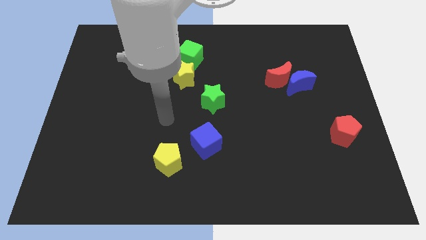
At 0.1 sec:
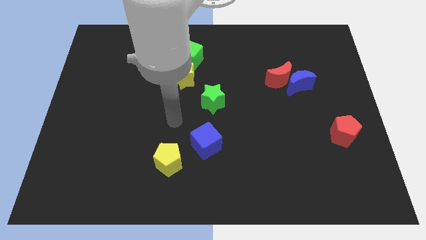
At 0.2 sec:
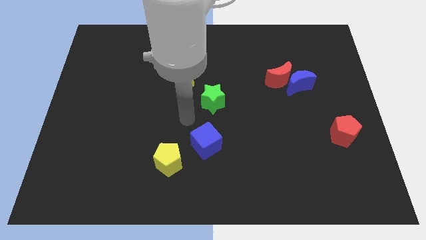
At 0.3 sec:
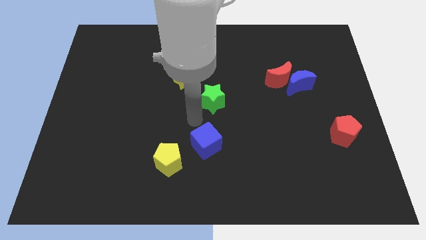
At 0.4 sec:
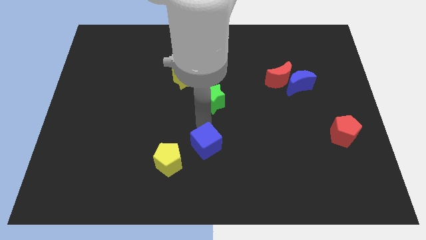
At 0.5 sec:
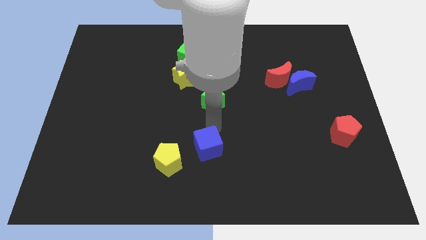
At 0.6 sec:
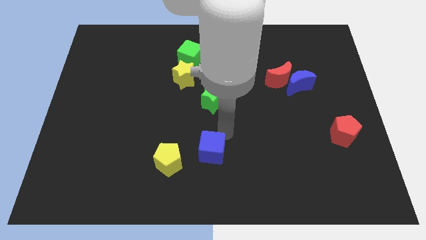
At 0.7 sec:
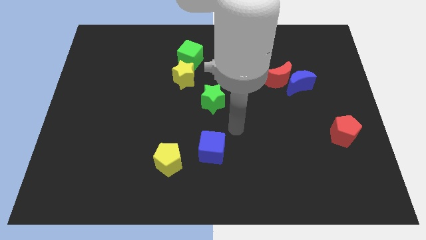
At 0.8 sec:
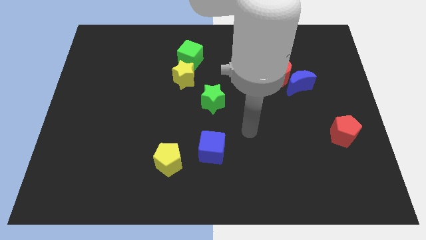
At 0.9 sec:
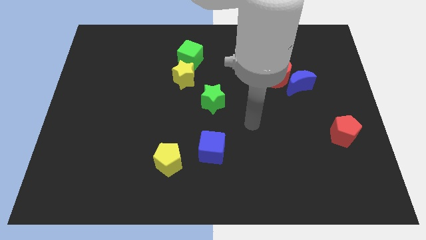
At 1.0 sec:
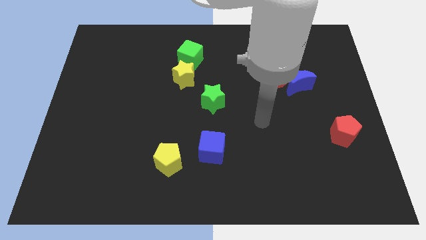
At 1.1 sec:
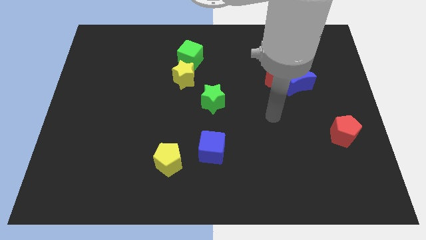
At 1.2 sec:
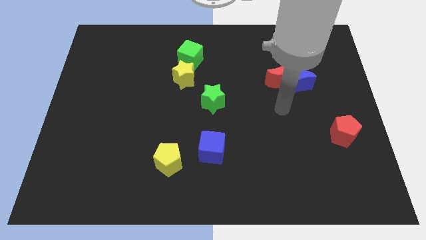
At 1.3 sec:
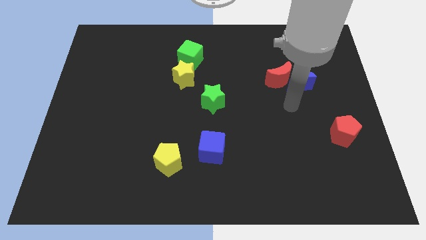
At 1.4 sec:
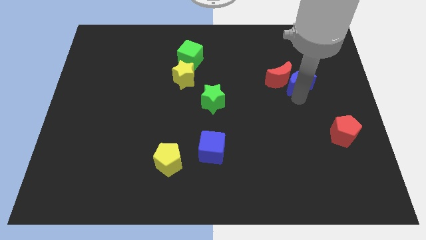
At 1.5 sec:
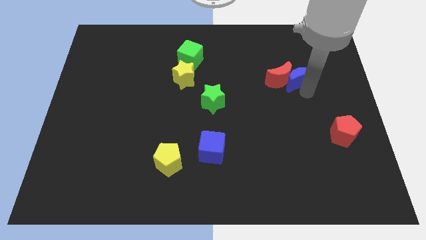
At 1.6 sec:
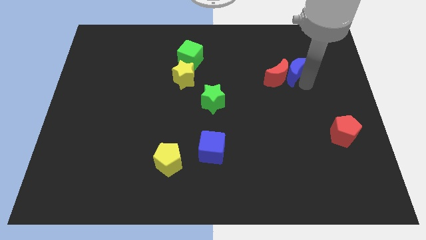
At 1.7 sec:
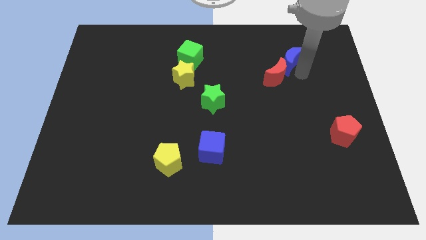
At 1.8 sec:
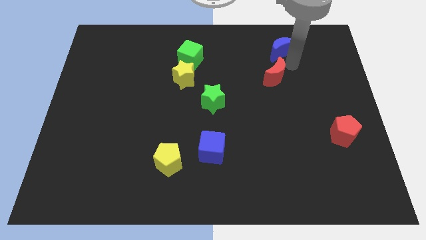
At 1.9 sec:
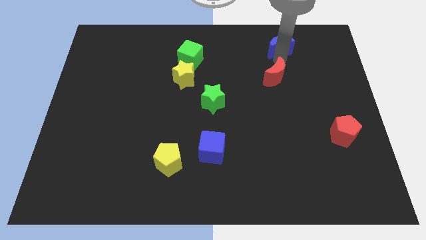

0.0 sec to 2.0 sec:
separate the red moon from the blue moon

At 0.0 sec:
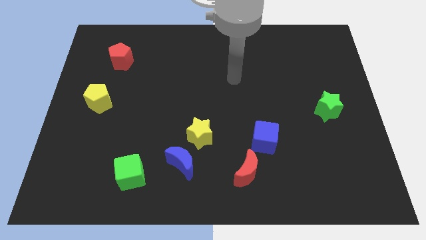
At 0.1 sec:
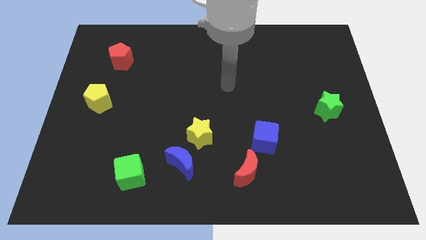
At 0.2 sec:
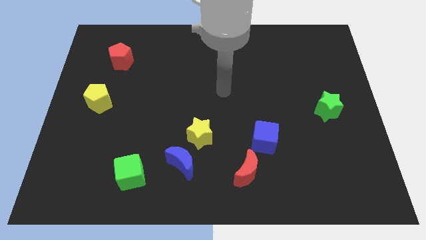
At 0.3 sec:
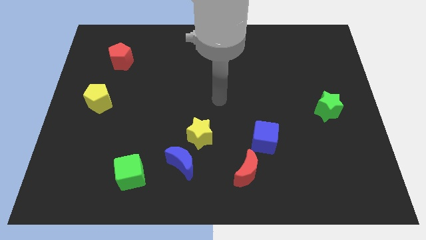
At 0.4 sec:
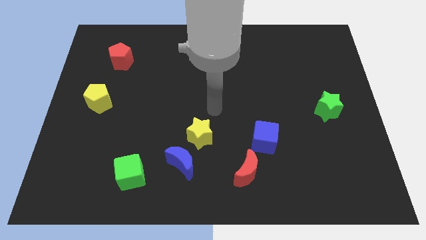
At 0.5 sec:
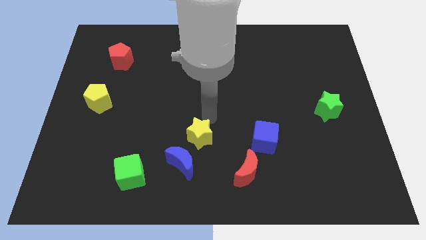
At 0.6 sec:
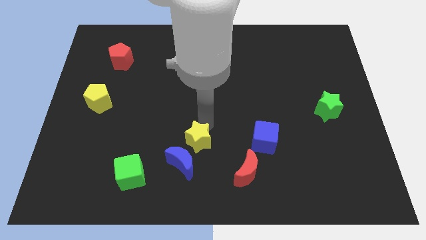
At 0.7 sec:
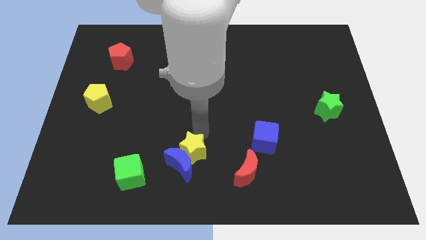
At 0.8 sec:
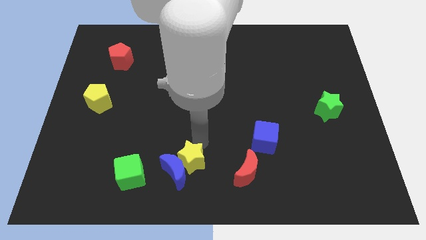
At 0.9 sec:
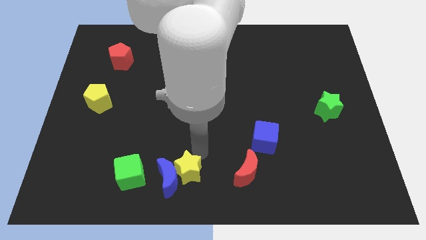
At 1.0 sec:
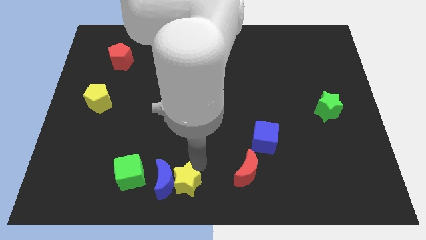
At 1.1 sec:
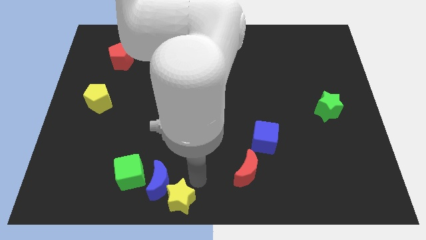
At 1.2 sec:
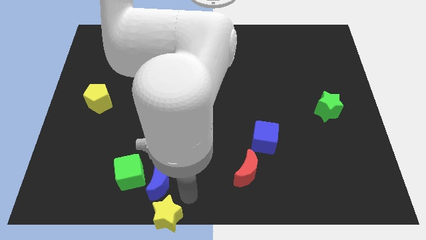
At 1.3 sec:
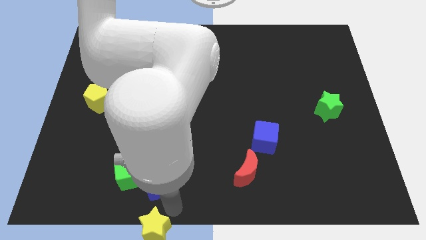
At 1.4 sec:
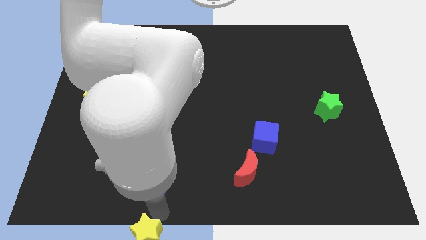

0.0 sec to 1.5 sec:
separate the blue moon from the yellow star

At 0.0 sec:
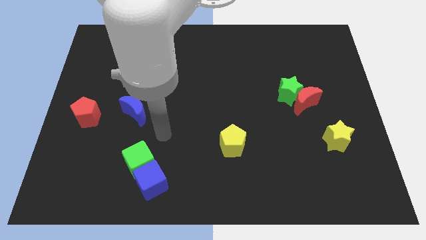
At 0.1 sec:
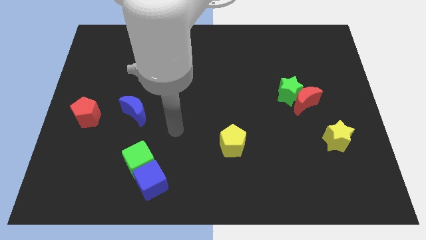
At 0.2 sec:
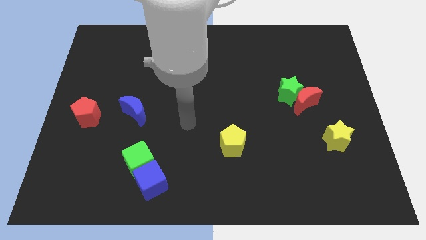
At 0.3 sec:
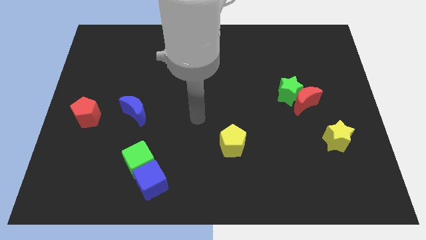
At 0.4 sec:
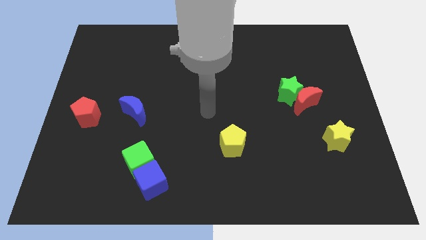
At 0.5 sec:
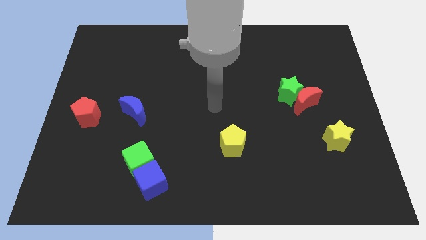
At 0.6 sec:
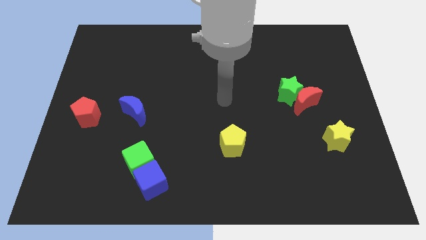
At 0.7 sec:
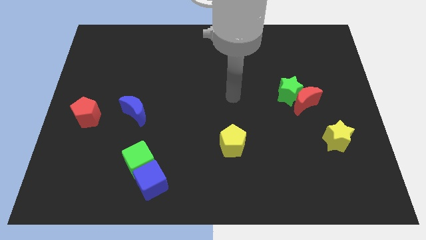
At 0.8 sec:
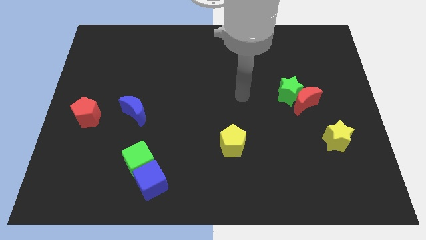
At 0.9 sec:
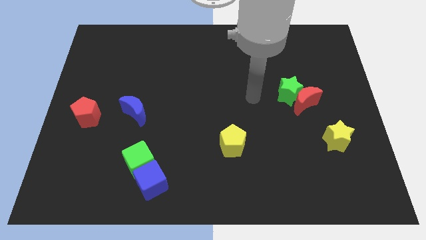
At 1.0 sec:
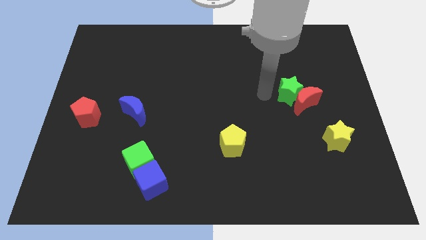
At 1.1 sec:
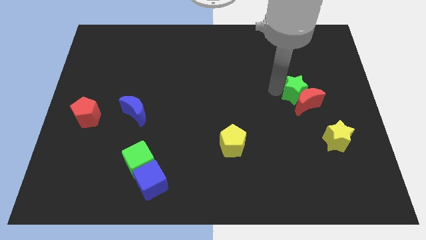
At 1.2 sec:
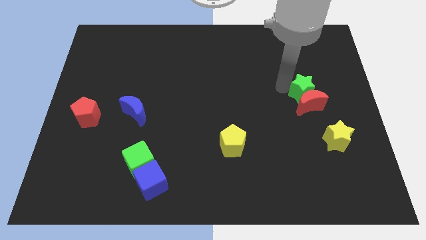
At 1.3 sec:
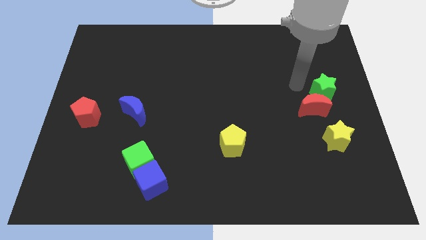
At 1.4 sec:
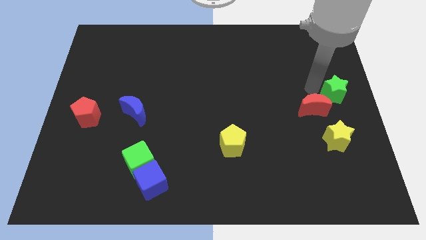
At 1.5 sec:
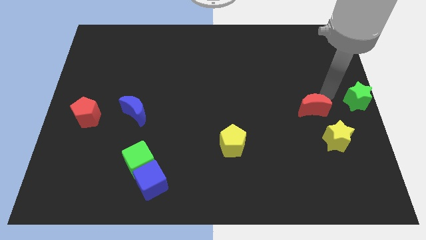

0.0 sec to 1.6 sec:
pull the red moon apart from the green star

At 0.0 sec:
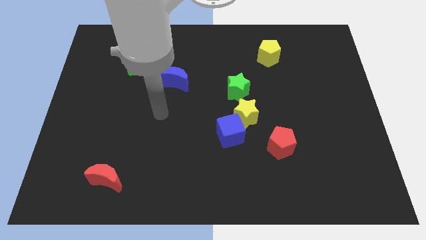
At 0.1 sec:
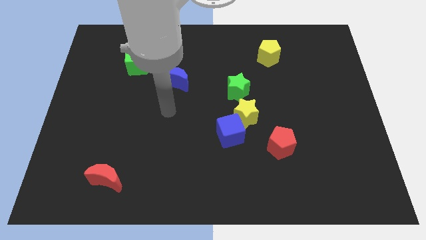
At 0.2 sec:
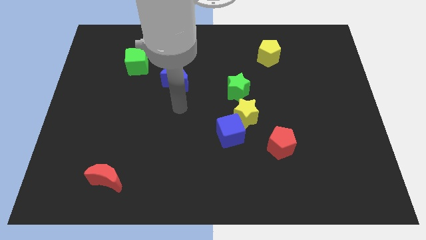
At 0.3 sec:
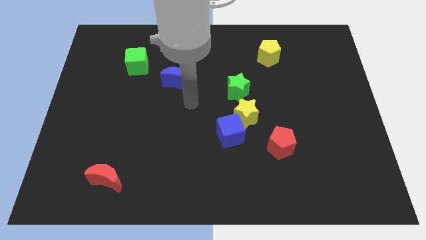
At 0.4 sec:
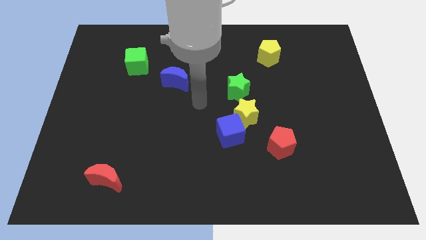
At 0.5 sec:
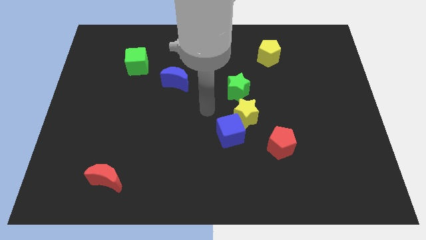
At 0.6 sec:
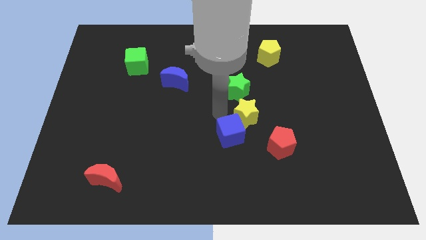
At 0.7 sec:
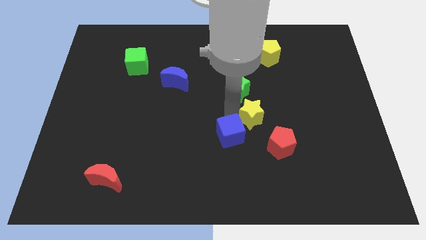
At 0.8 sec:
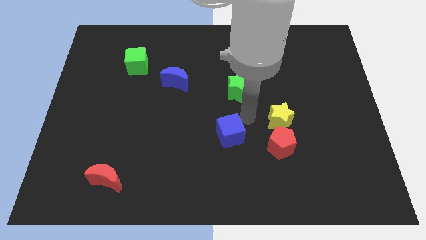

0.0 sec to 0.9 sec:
separate the blue cube from the yellow star

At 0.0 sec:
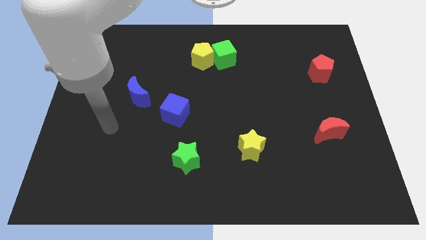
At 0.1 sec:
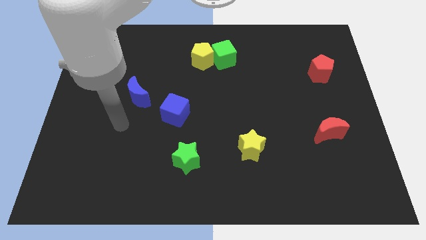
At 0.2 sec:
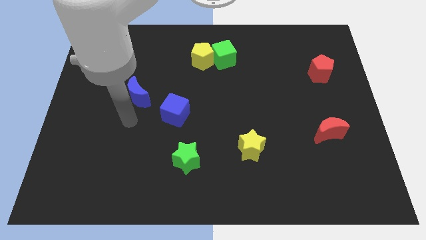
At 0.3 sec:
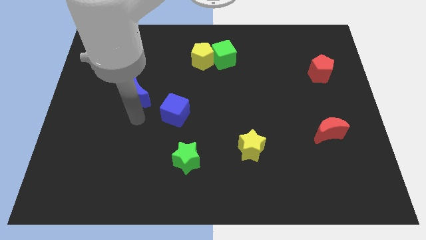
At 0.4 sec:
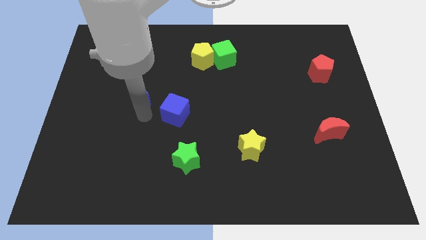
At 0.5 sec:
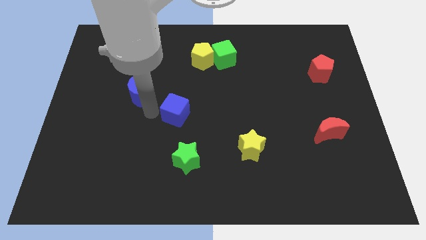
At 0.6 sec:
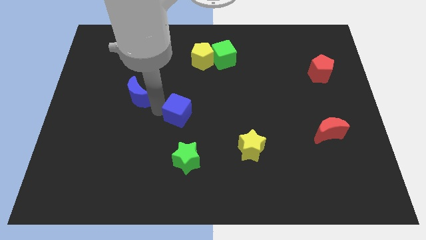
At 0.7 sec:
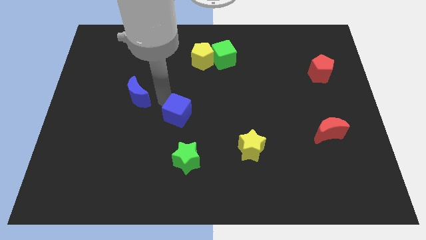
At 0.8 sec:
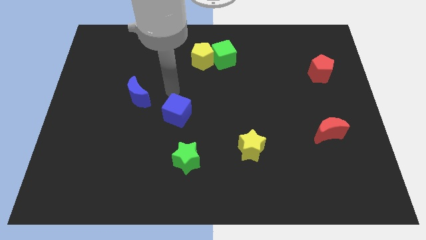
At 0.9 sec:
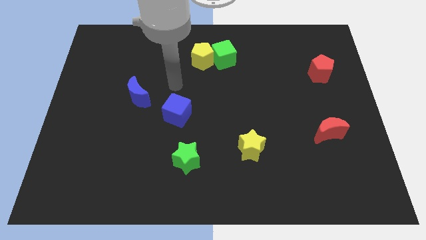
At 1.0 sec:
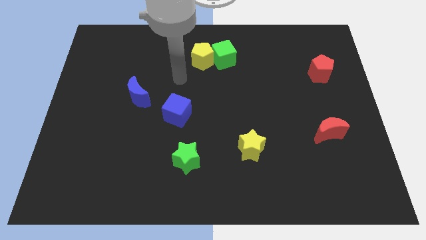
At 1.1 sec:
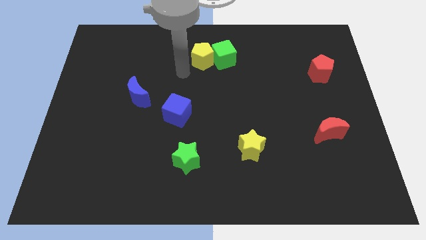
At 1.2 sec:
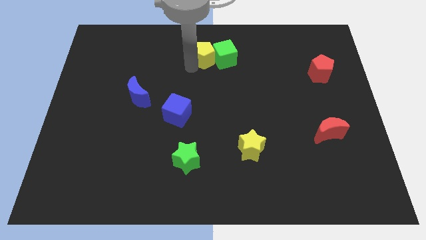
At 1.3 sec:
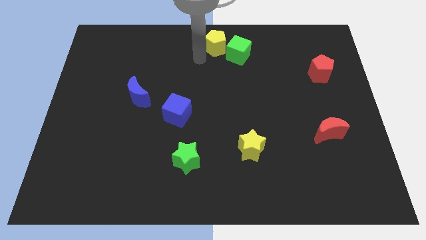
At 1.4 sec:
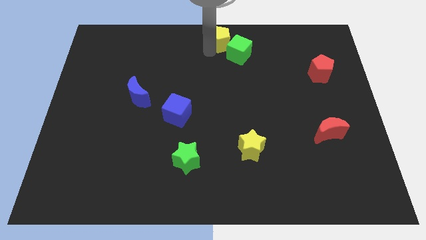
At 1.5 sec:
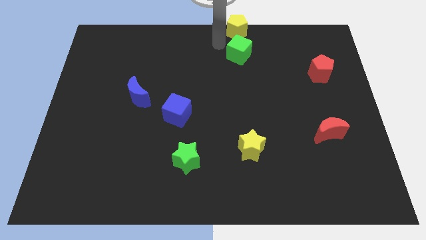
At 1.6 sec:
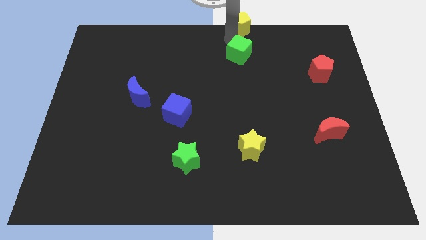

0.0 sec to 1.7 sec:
separate the green cube from the yellow pentagon

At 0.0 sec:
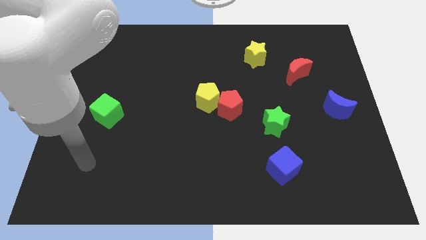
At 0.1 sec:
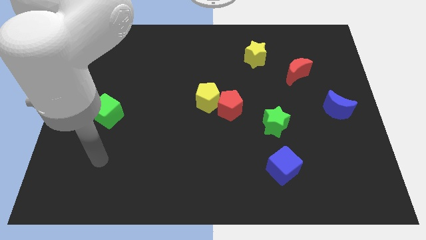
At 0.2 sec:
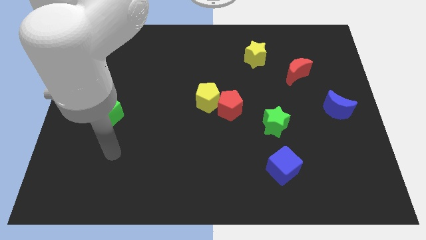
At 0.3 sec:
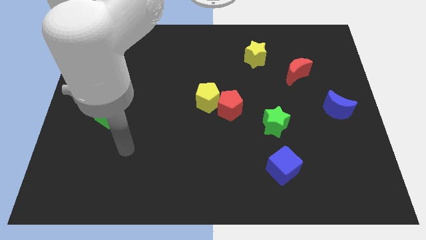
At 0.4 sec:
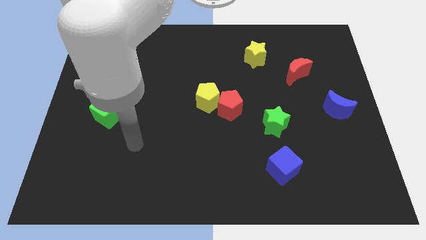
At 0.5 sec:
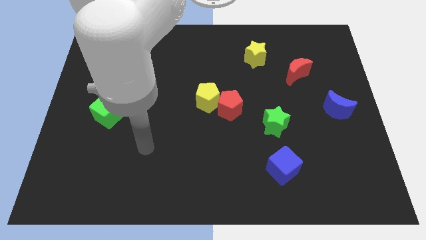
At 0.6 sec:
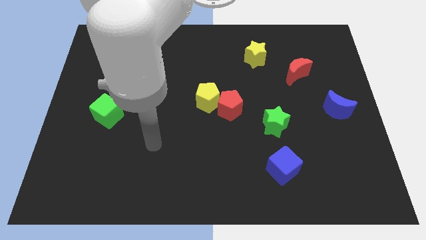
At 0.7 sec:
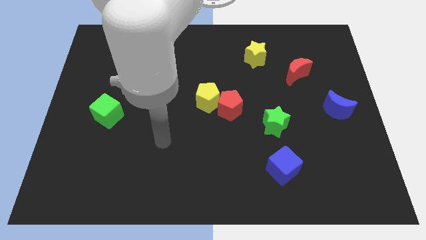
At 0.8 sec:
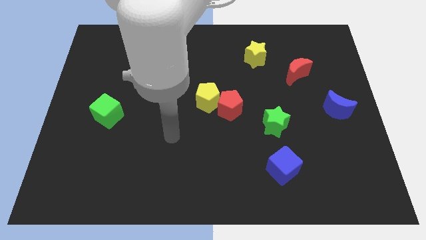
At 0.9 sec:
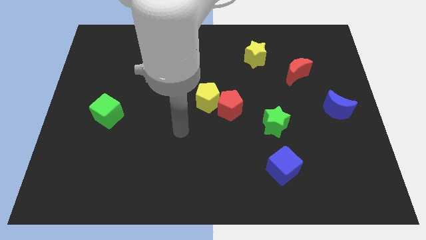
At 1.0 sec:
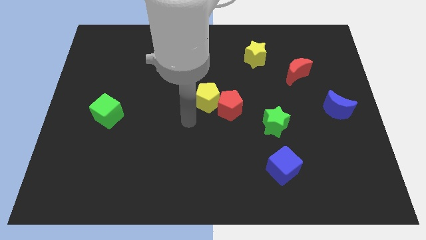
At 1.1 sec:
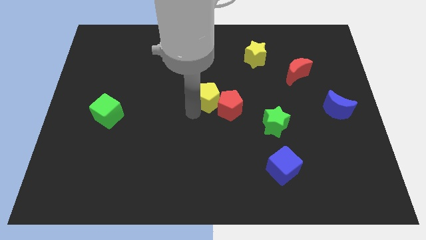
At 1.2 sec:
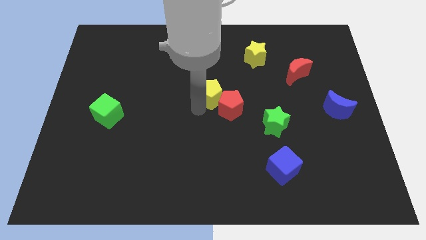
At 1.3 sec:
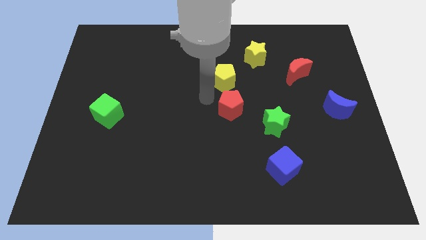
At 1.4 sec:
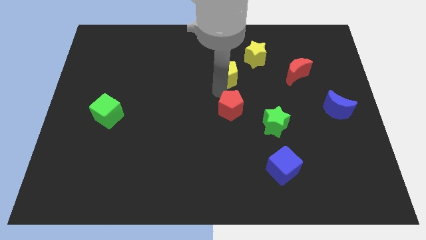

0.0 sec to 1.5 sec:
pull the red pentagon apart from the yellow pentagon
